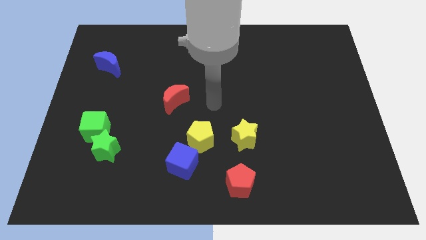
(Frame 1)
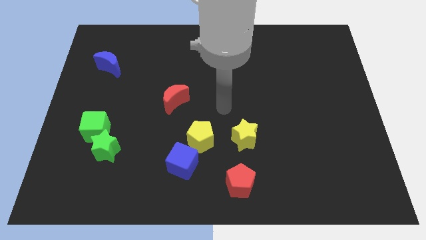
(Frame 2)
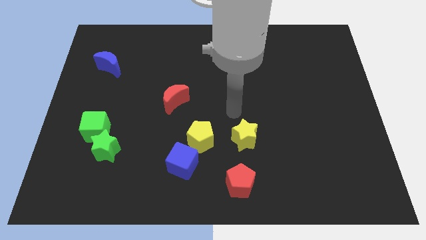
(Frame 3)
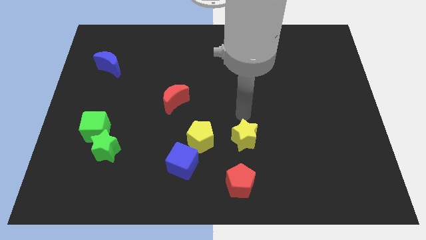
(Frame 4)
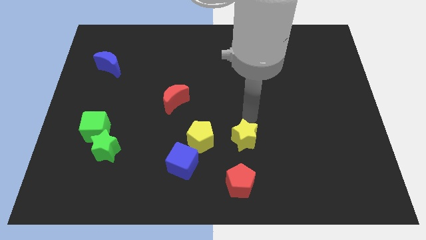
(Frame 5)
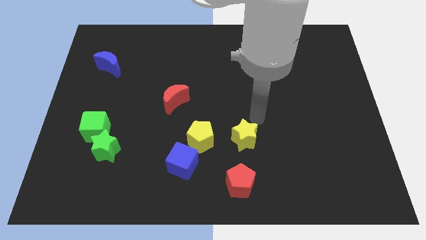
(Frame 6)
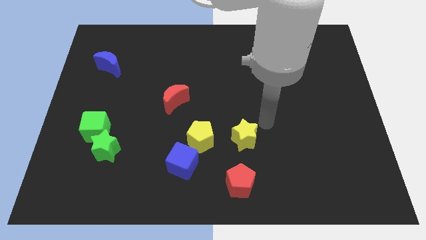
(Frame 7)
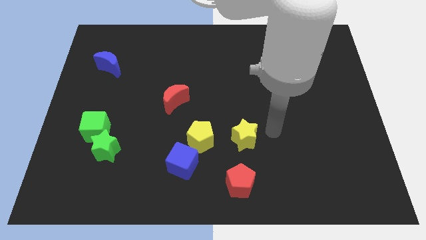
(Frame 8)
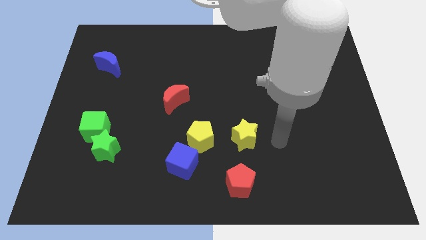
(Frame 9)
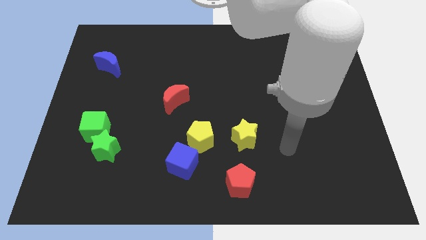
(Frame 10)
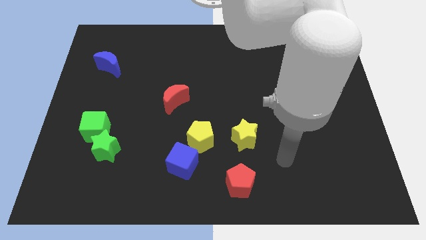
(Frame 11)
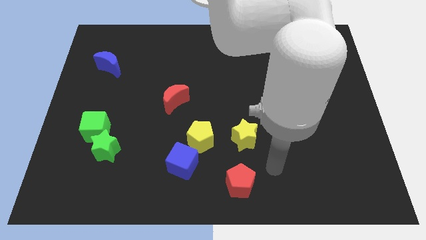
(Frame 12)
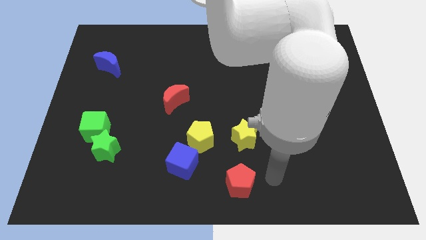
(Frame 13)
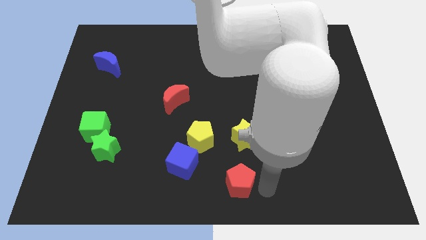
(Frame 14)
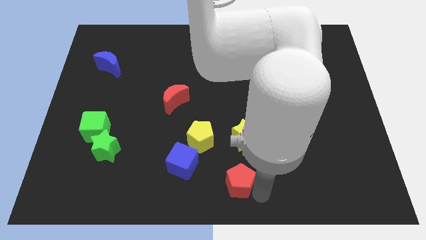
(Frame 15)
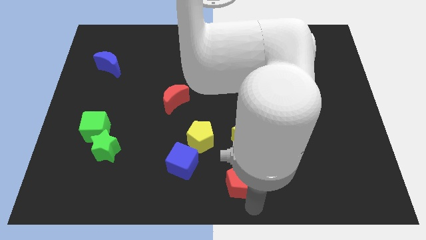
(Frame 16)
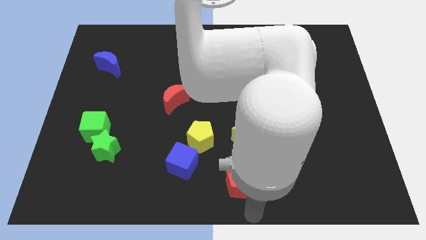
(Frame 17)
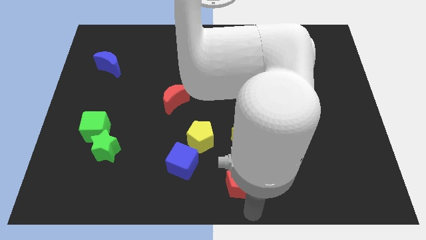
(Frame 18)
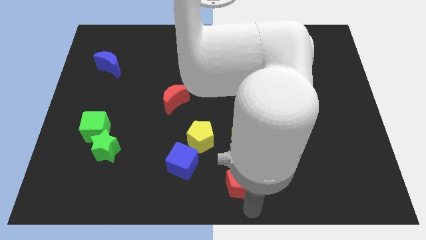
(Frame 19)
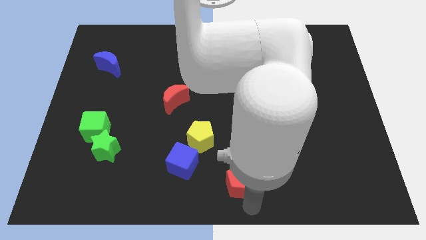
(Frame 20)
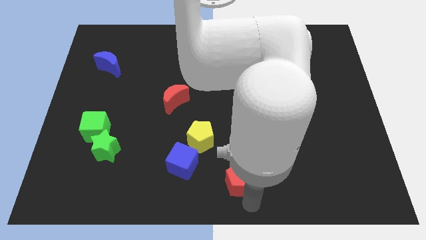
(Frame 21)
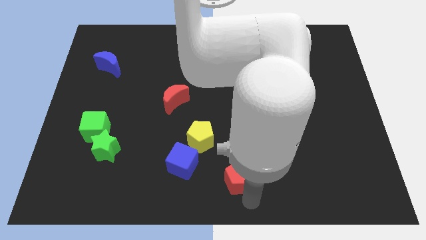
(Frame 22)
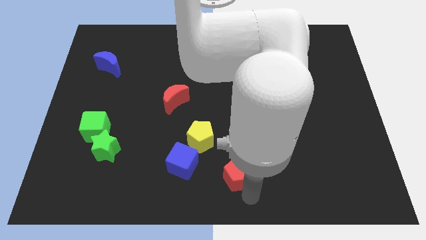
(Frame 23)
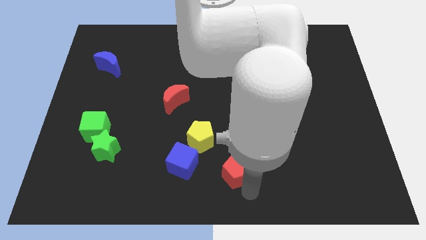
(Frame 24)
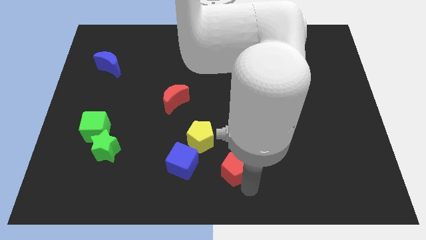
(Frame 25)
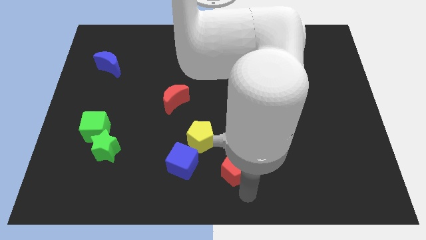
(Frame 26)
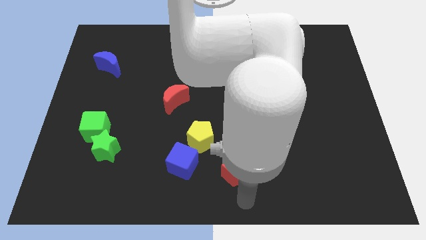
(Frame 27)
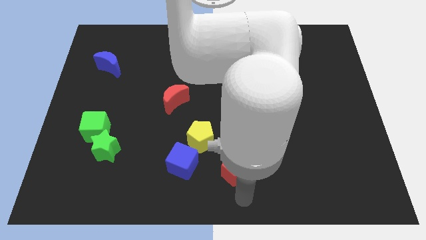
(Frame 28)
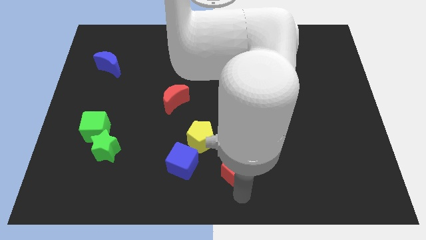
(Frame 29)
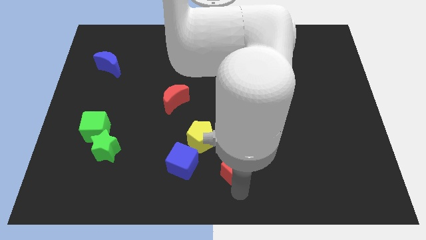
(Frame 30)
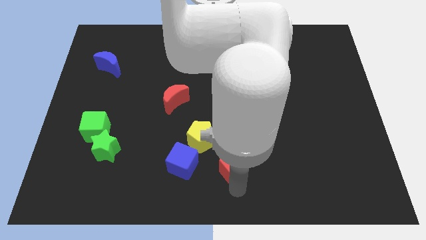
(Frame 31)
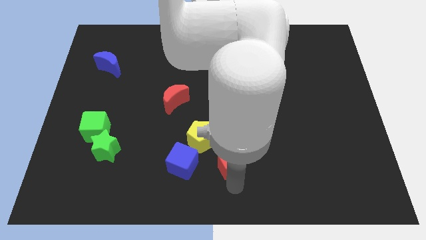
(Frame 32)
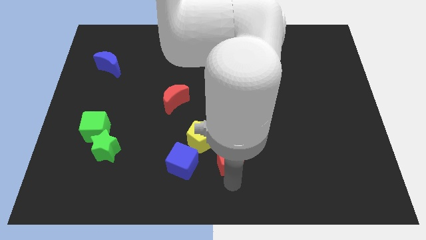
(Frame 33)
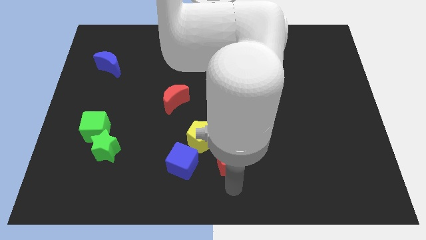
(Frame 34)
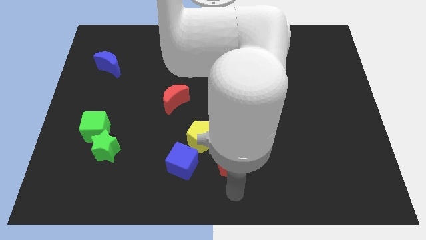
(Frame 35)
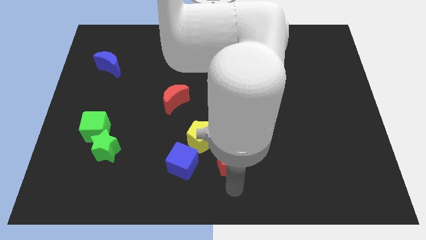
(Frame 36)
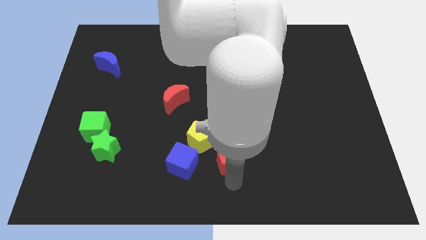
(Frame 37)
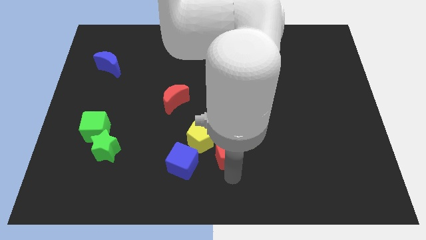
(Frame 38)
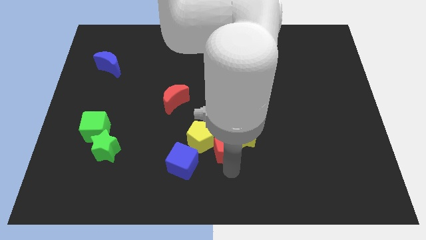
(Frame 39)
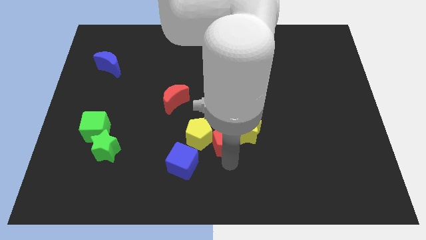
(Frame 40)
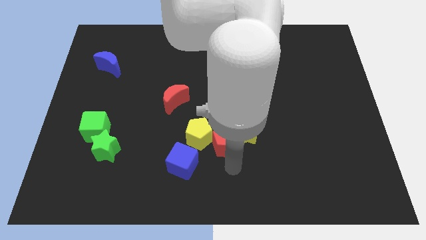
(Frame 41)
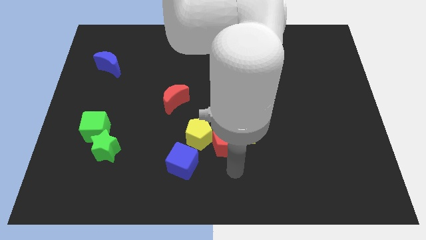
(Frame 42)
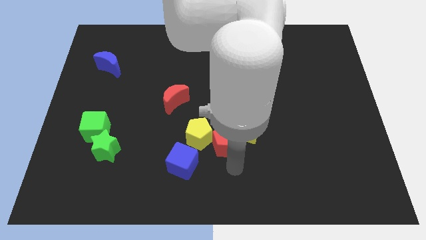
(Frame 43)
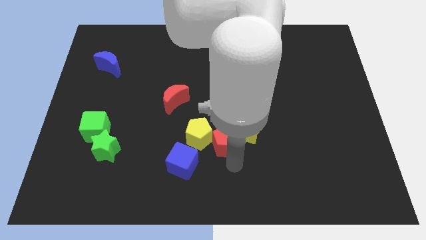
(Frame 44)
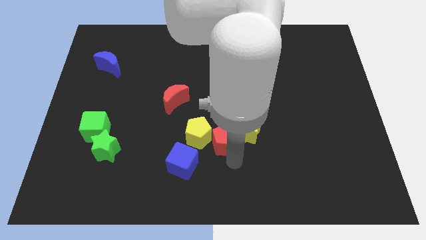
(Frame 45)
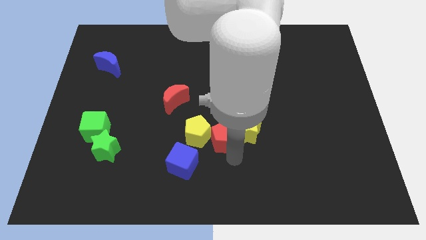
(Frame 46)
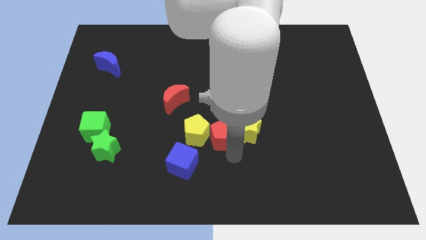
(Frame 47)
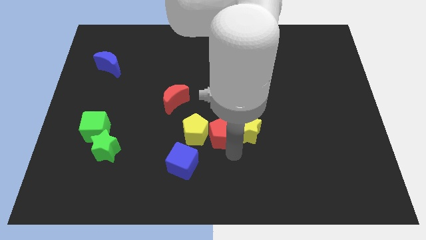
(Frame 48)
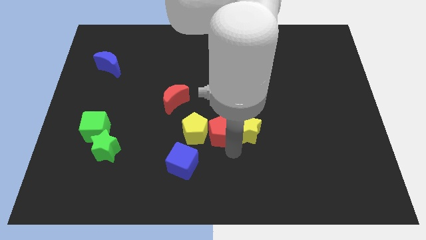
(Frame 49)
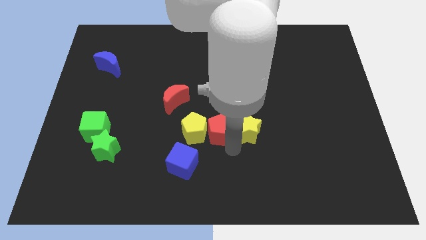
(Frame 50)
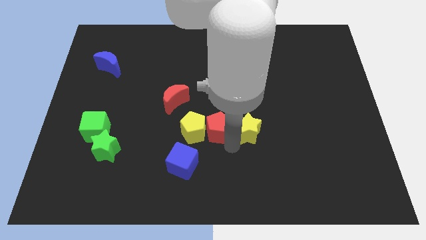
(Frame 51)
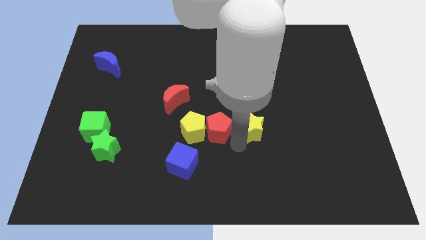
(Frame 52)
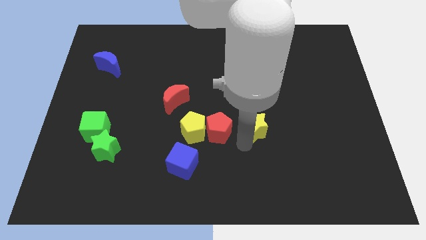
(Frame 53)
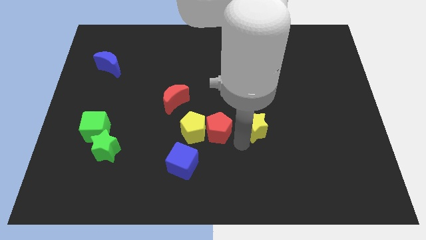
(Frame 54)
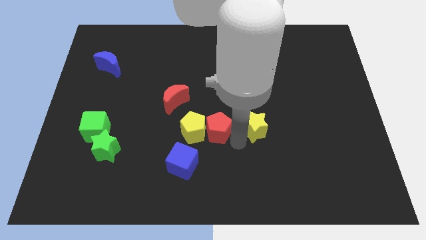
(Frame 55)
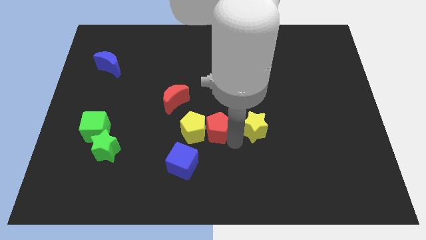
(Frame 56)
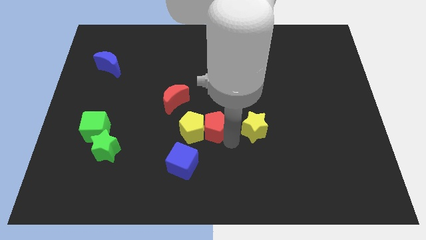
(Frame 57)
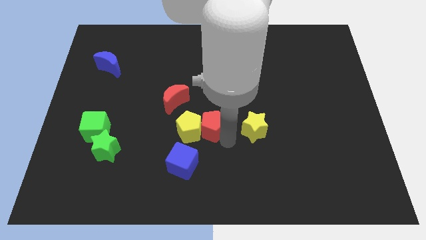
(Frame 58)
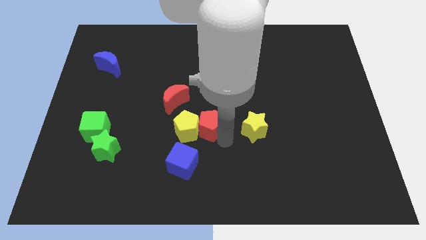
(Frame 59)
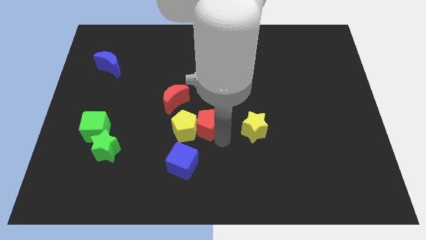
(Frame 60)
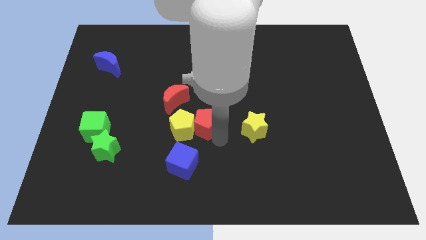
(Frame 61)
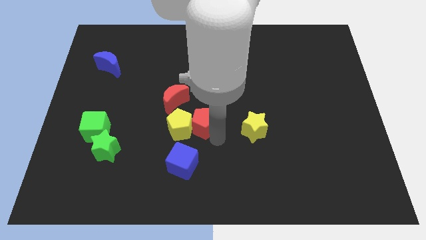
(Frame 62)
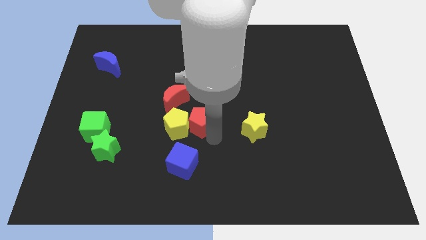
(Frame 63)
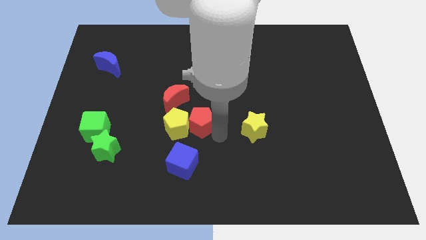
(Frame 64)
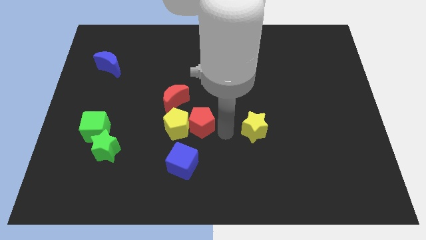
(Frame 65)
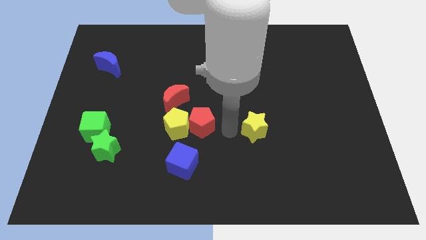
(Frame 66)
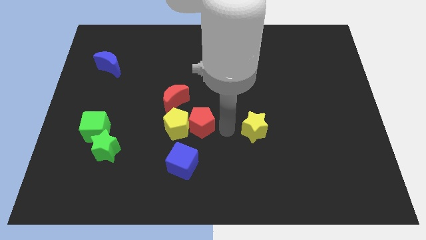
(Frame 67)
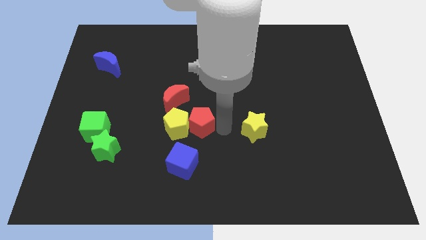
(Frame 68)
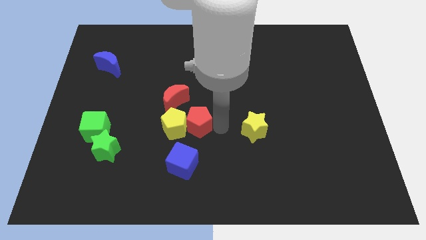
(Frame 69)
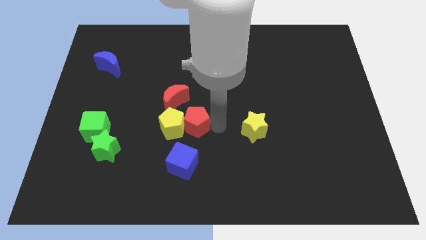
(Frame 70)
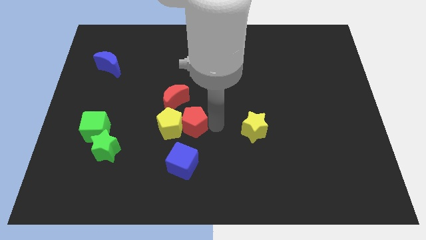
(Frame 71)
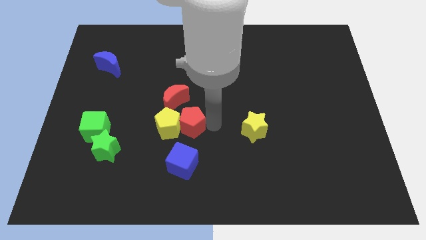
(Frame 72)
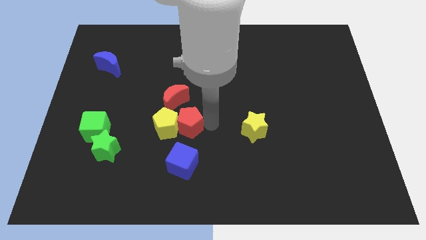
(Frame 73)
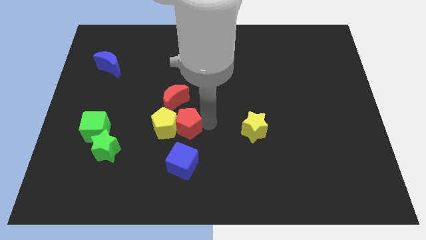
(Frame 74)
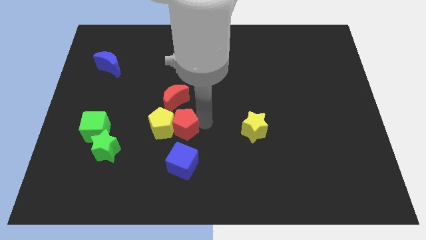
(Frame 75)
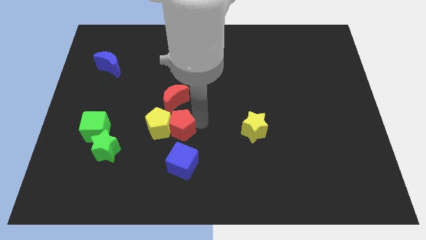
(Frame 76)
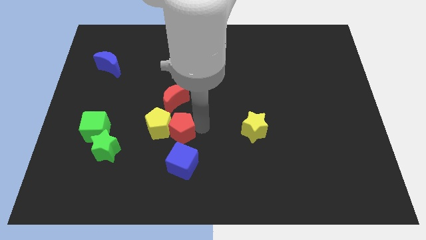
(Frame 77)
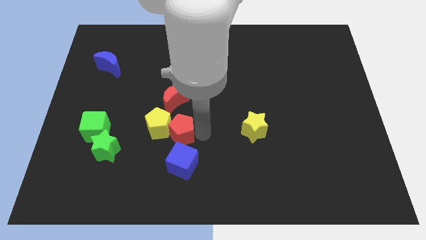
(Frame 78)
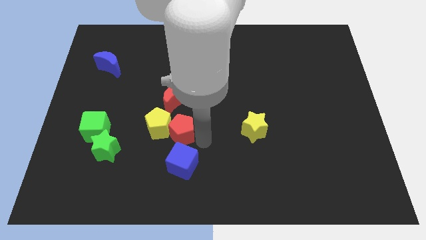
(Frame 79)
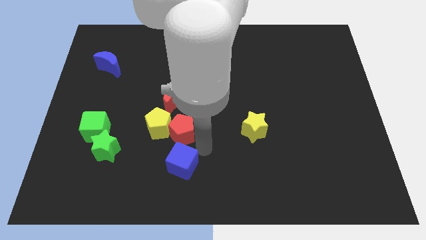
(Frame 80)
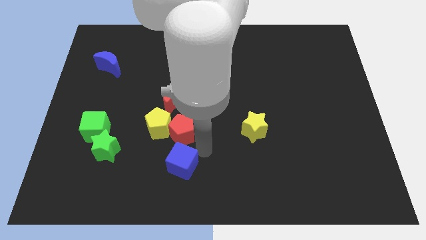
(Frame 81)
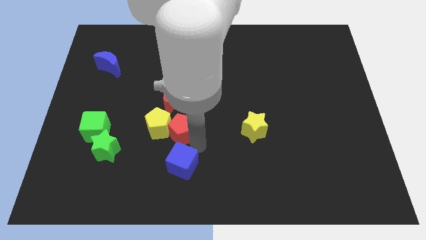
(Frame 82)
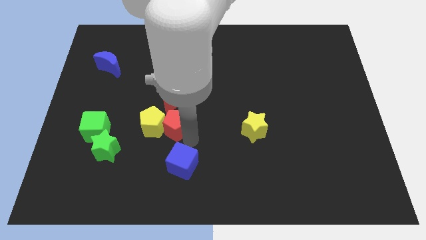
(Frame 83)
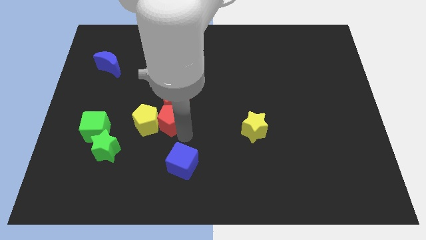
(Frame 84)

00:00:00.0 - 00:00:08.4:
move the red pentagon upwards and then left
